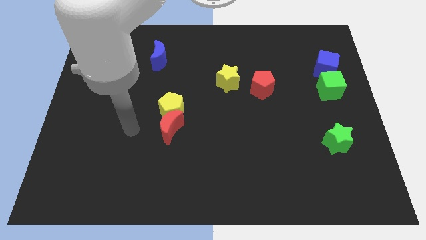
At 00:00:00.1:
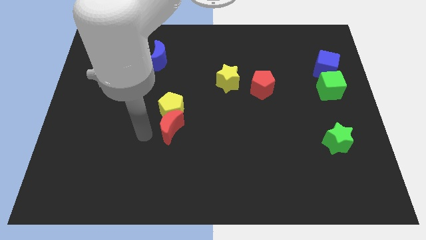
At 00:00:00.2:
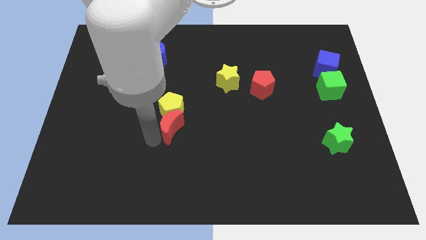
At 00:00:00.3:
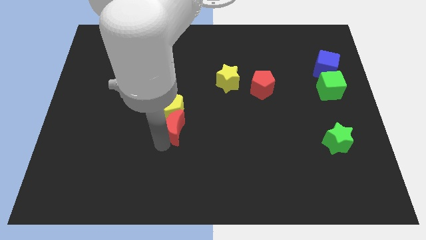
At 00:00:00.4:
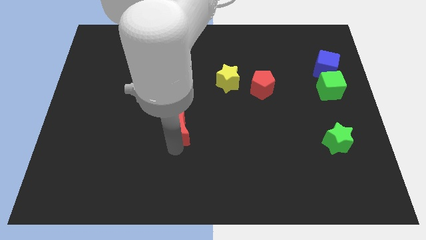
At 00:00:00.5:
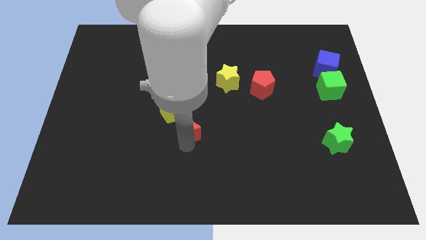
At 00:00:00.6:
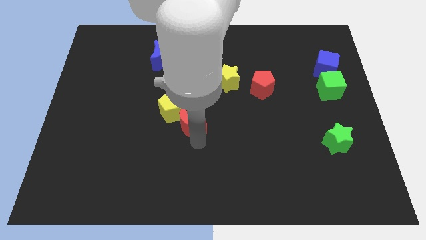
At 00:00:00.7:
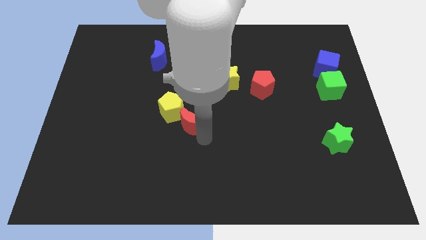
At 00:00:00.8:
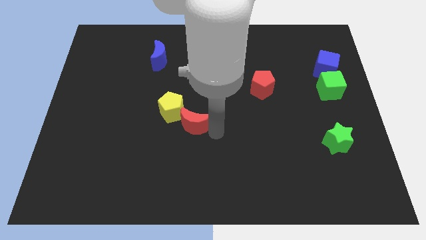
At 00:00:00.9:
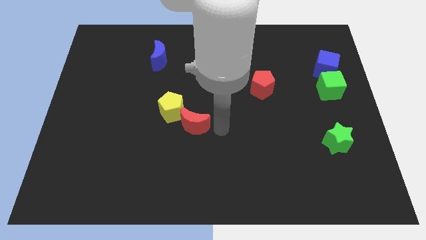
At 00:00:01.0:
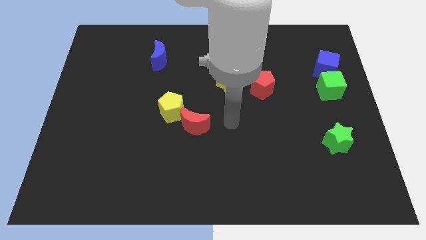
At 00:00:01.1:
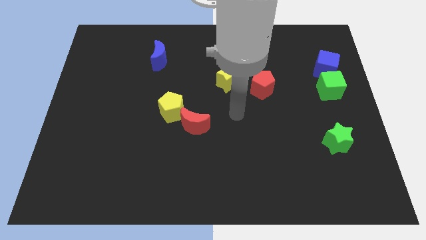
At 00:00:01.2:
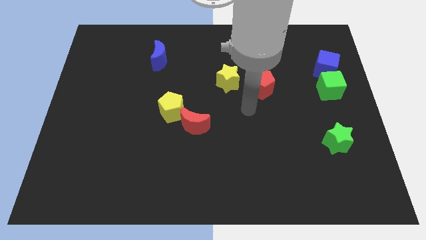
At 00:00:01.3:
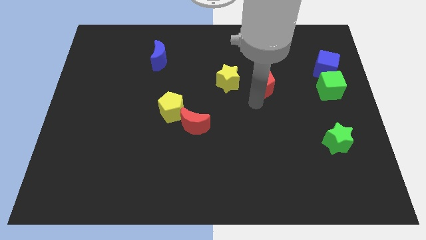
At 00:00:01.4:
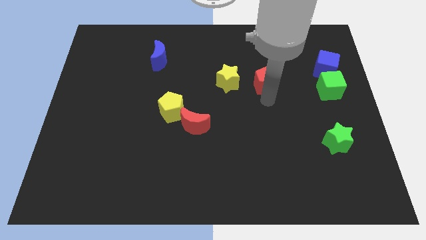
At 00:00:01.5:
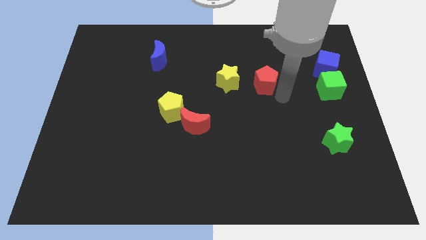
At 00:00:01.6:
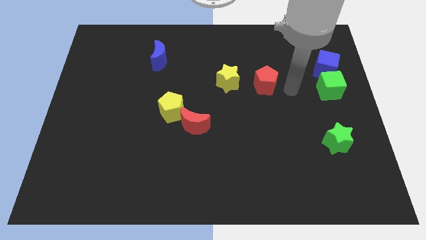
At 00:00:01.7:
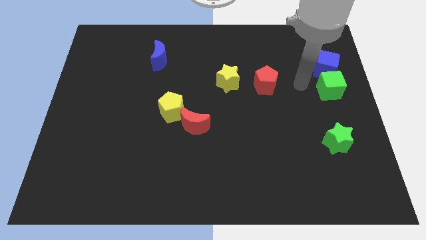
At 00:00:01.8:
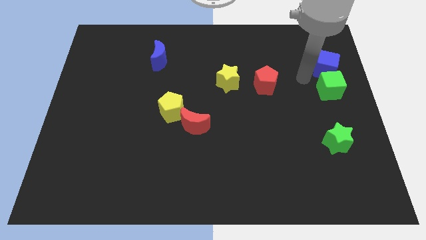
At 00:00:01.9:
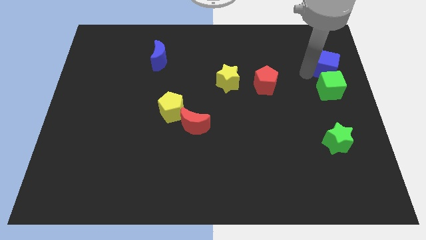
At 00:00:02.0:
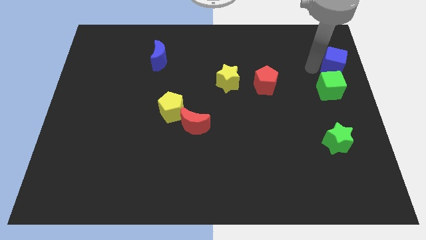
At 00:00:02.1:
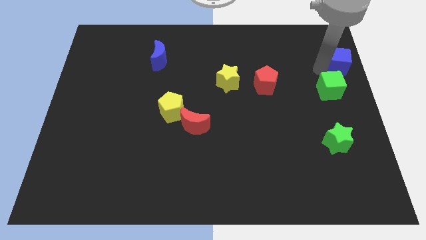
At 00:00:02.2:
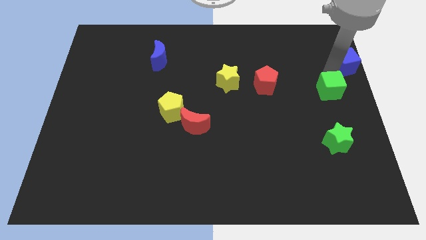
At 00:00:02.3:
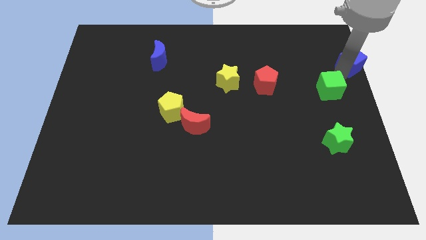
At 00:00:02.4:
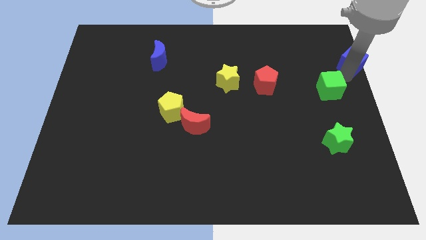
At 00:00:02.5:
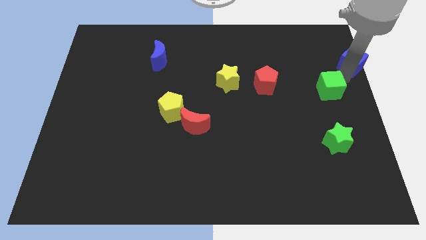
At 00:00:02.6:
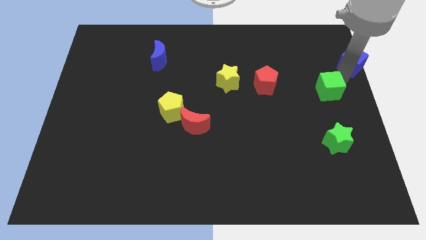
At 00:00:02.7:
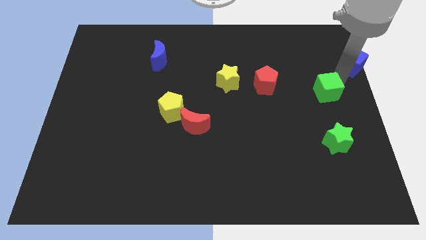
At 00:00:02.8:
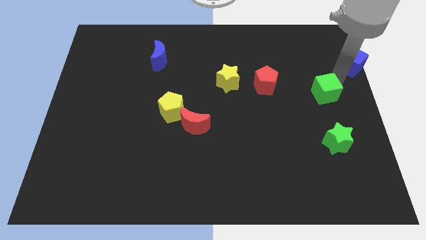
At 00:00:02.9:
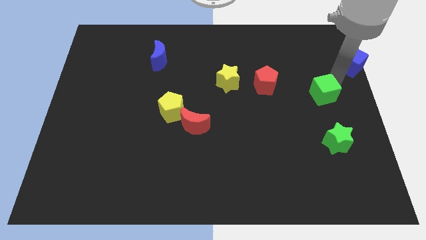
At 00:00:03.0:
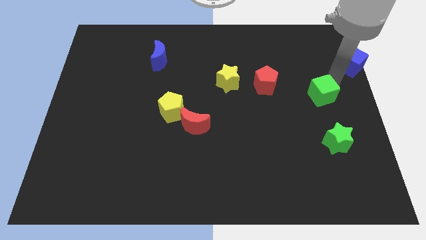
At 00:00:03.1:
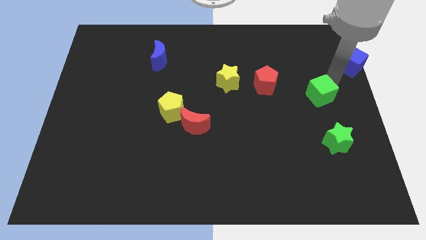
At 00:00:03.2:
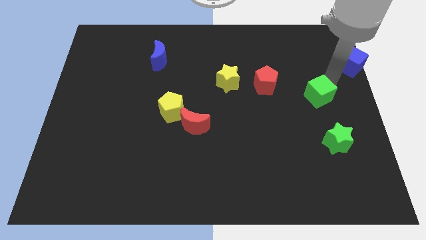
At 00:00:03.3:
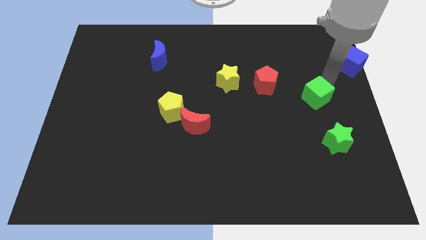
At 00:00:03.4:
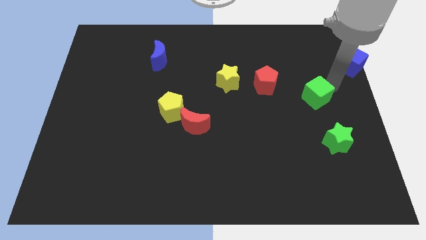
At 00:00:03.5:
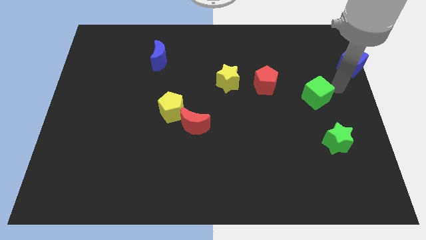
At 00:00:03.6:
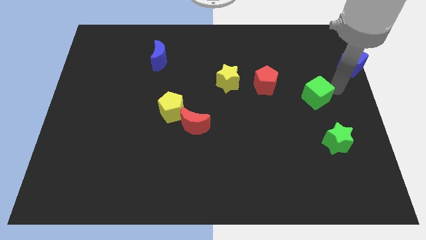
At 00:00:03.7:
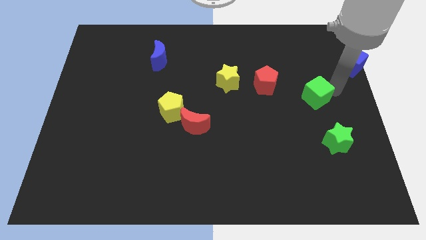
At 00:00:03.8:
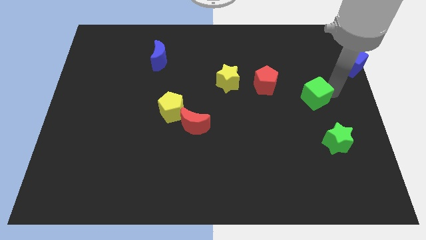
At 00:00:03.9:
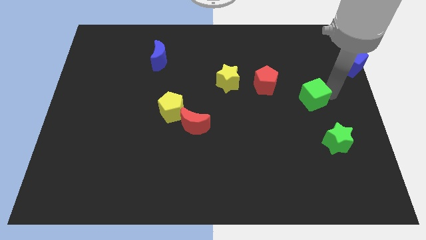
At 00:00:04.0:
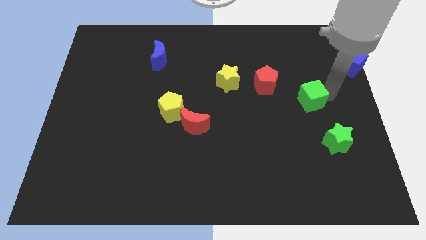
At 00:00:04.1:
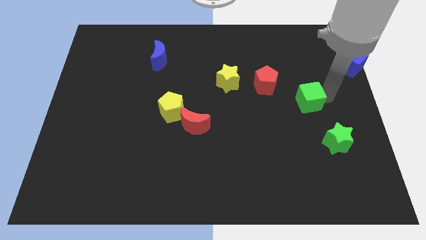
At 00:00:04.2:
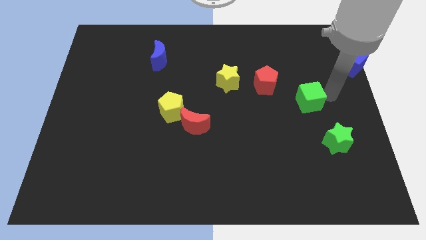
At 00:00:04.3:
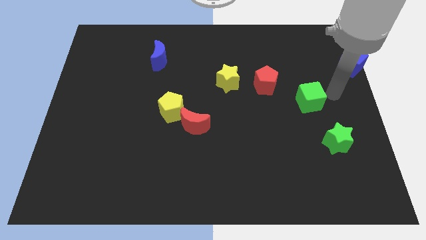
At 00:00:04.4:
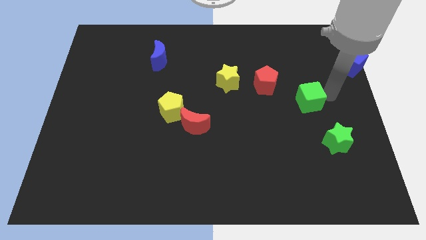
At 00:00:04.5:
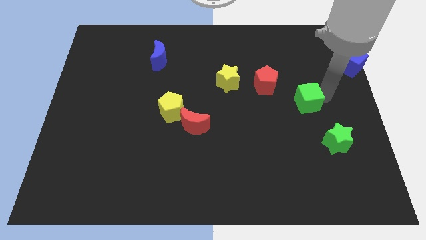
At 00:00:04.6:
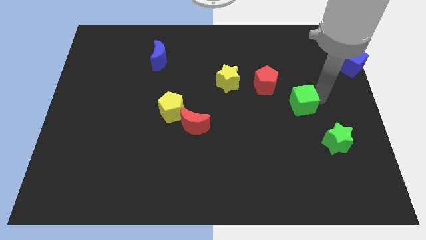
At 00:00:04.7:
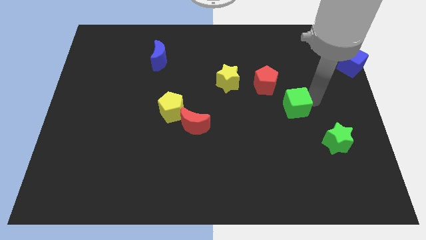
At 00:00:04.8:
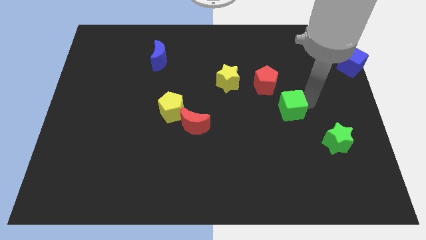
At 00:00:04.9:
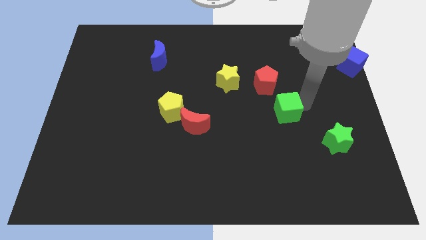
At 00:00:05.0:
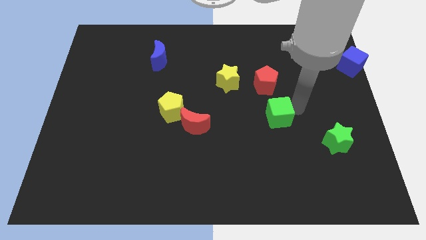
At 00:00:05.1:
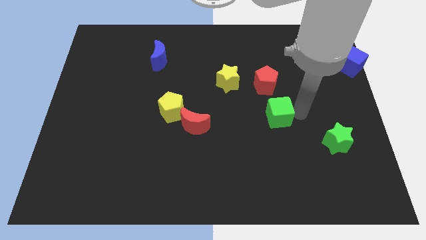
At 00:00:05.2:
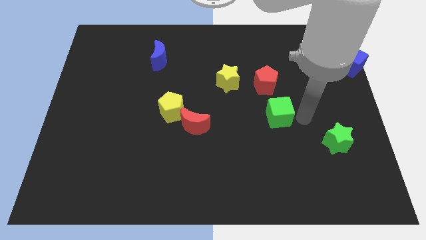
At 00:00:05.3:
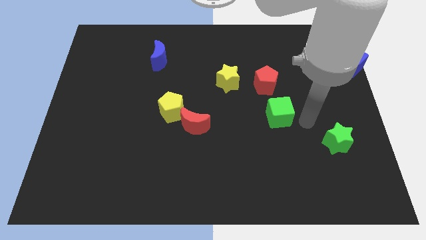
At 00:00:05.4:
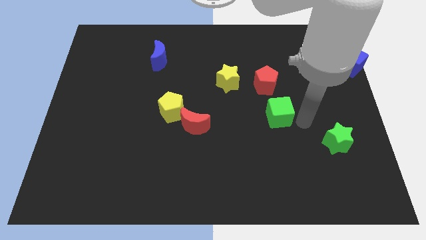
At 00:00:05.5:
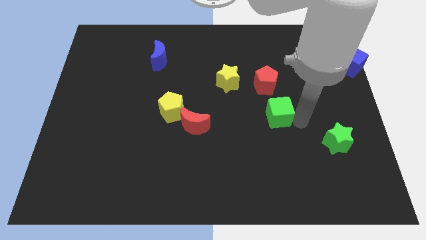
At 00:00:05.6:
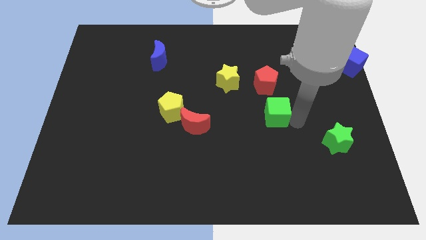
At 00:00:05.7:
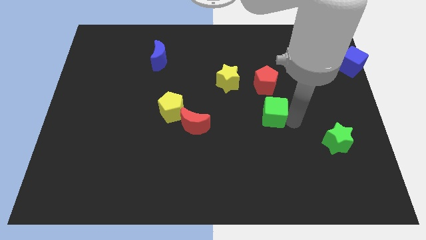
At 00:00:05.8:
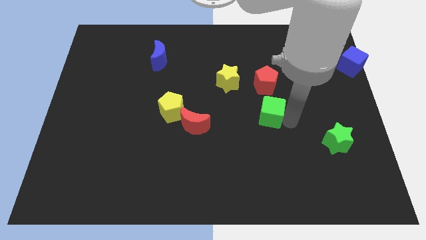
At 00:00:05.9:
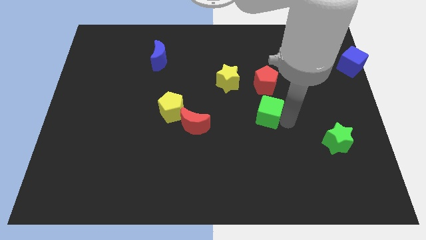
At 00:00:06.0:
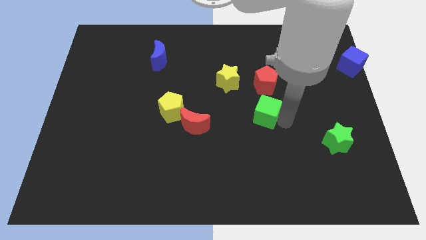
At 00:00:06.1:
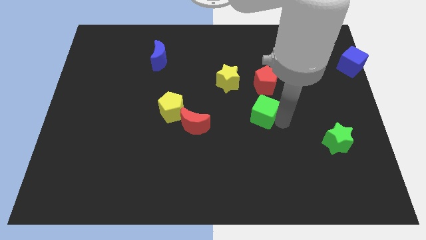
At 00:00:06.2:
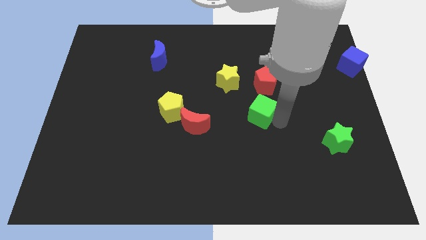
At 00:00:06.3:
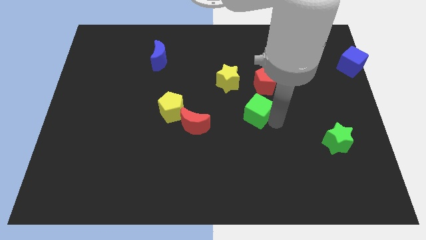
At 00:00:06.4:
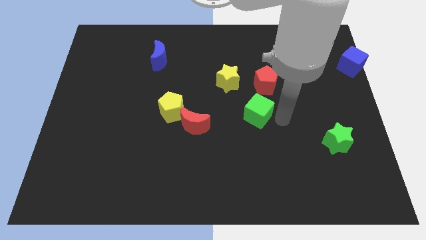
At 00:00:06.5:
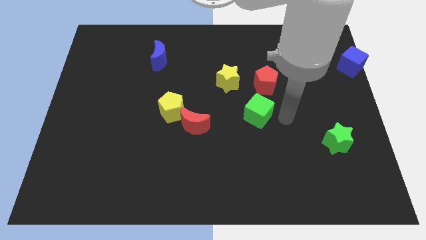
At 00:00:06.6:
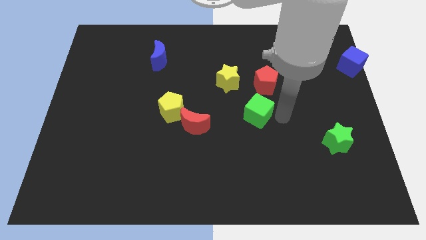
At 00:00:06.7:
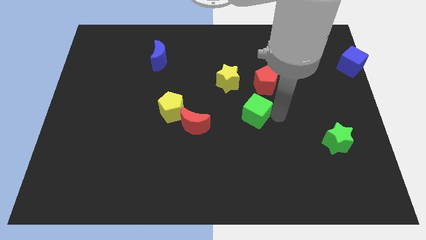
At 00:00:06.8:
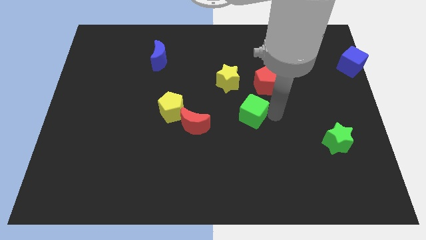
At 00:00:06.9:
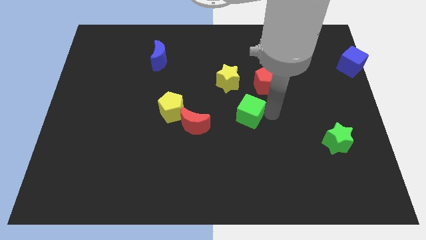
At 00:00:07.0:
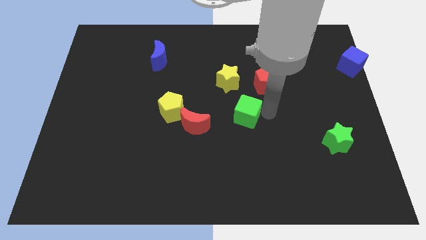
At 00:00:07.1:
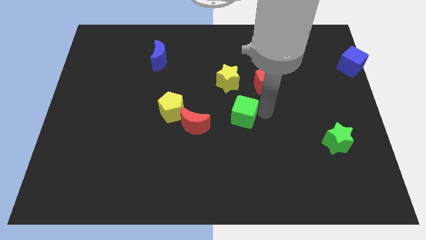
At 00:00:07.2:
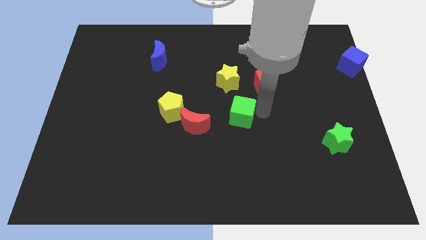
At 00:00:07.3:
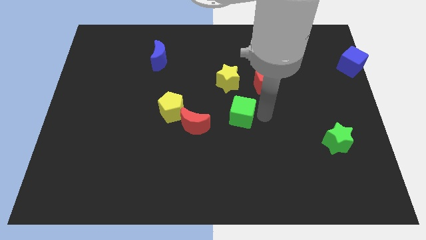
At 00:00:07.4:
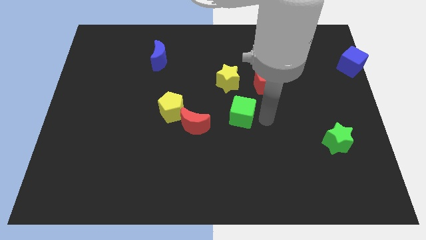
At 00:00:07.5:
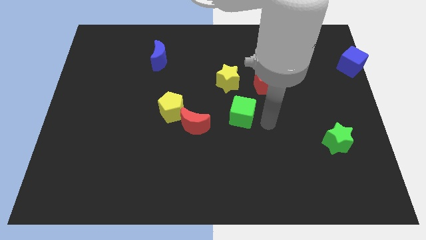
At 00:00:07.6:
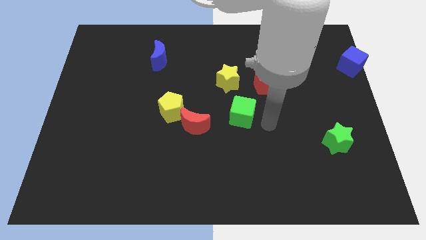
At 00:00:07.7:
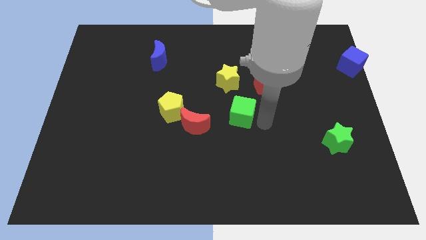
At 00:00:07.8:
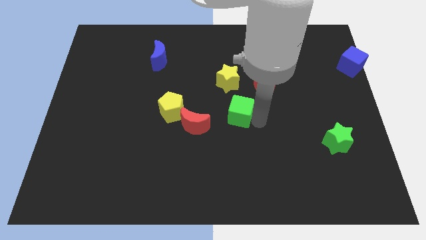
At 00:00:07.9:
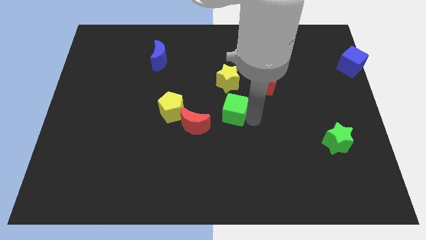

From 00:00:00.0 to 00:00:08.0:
put the green cube to the top right side of the red moon

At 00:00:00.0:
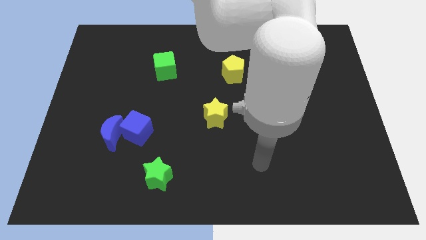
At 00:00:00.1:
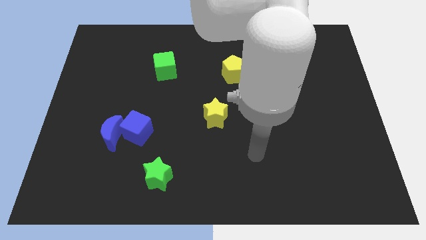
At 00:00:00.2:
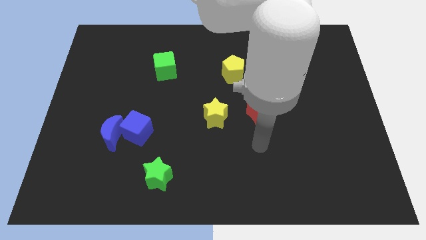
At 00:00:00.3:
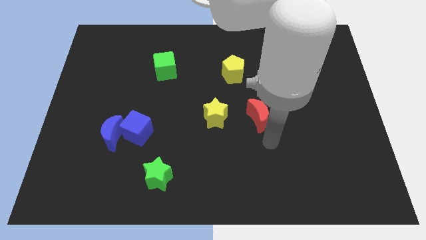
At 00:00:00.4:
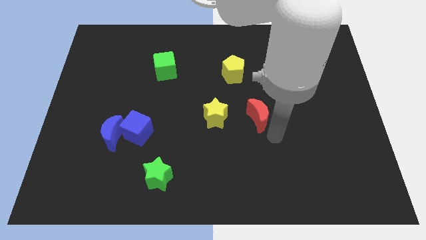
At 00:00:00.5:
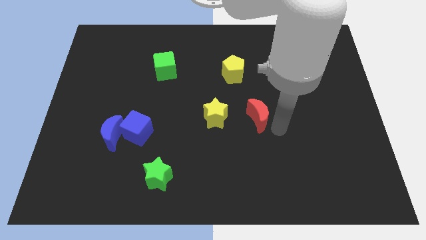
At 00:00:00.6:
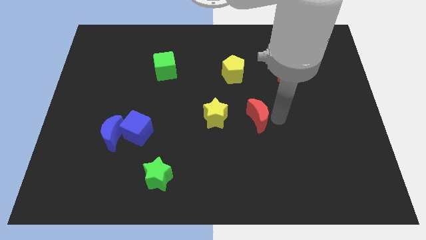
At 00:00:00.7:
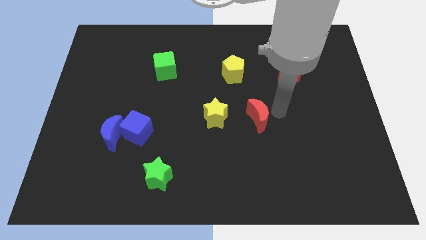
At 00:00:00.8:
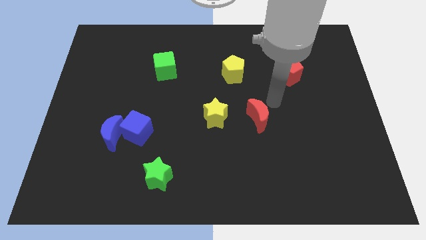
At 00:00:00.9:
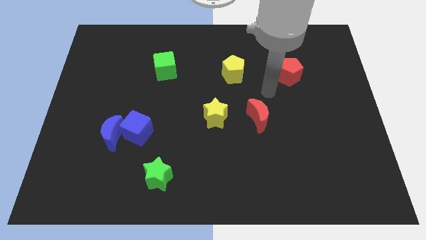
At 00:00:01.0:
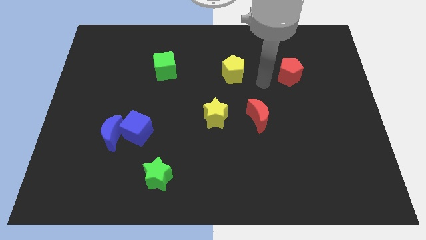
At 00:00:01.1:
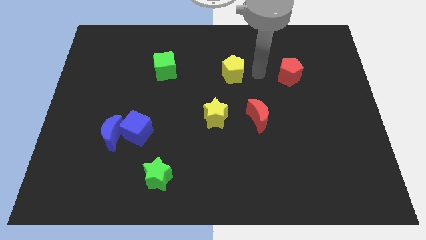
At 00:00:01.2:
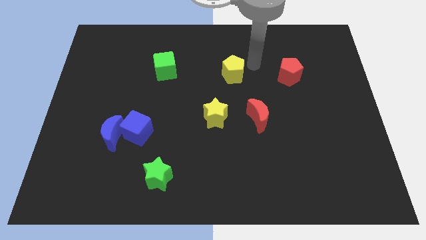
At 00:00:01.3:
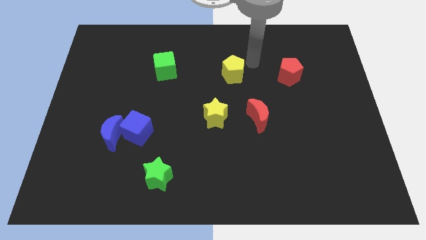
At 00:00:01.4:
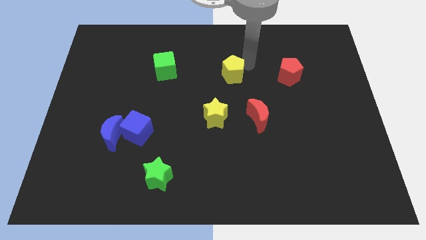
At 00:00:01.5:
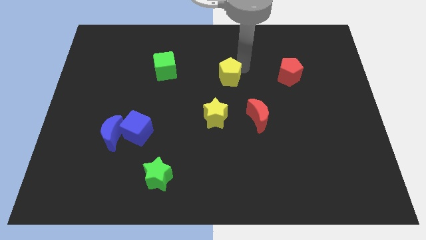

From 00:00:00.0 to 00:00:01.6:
put the yellow pentagon to the top of the yellow star
